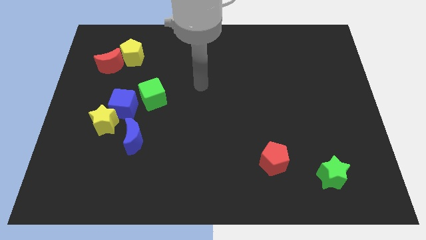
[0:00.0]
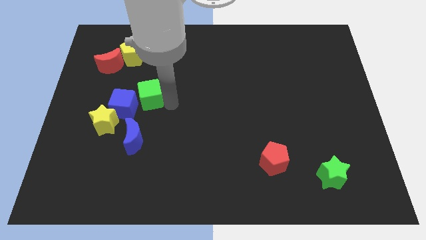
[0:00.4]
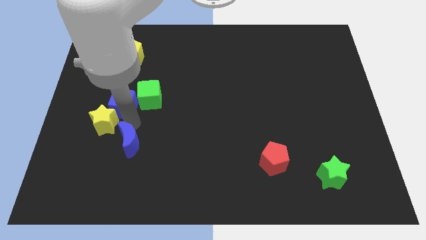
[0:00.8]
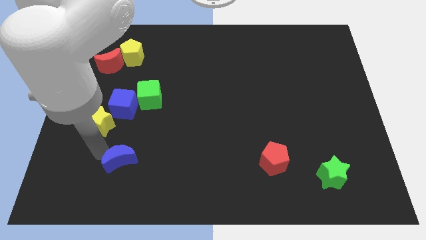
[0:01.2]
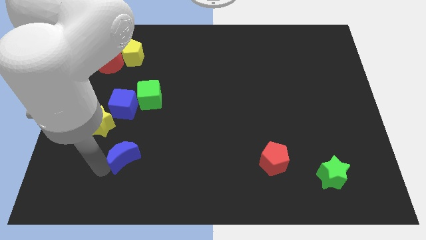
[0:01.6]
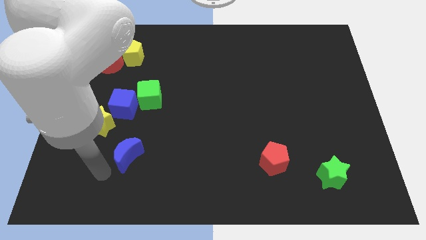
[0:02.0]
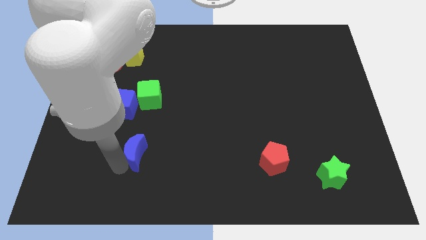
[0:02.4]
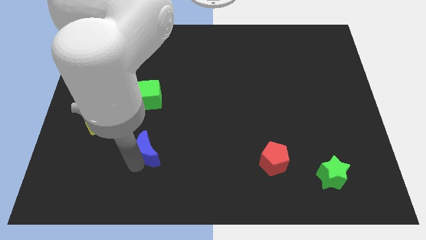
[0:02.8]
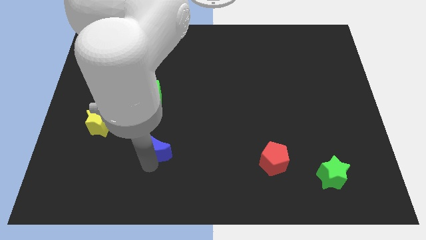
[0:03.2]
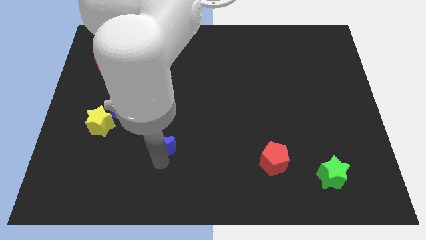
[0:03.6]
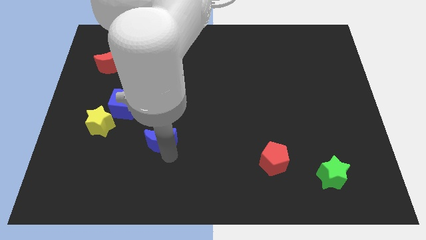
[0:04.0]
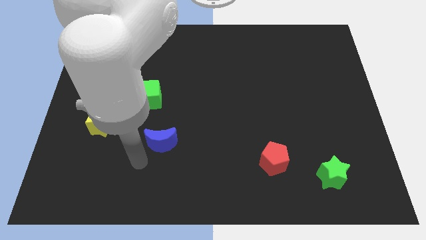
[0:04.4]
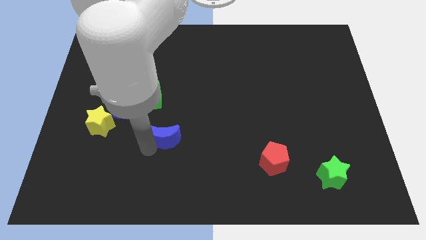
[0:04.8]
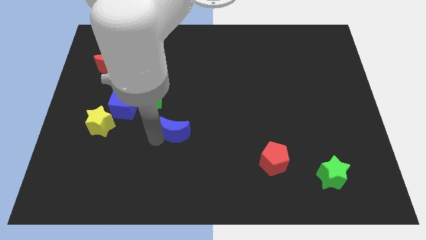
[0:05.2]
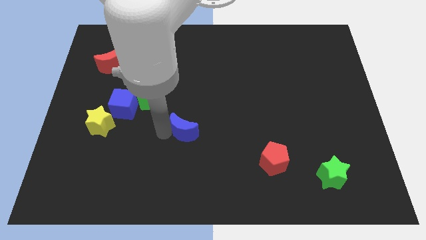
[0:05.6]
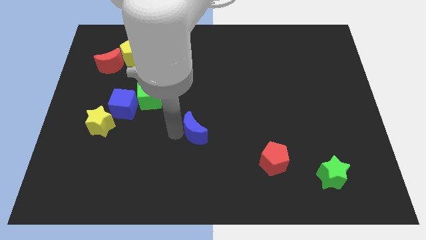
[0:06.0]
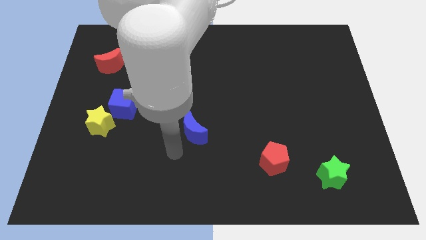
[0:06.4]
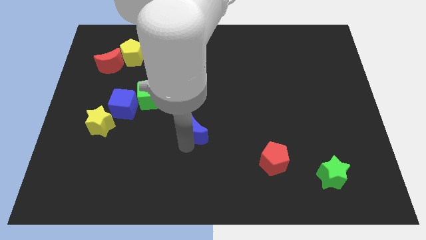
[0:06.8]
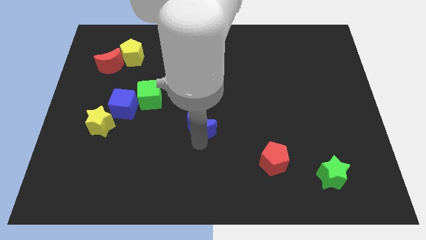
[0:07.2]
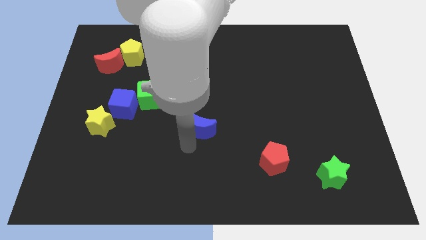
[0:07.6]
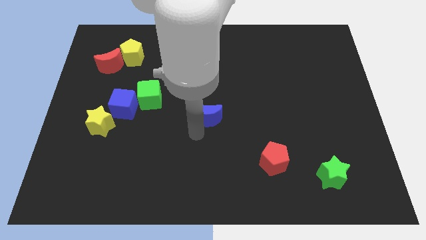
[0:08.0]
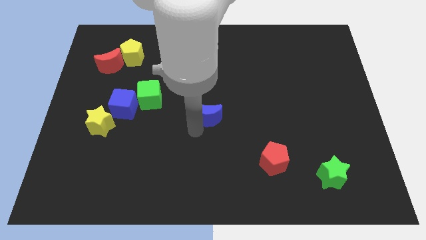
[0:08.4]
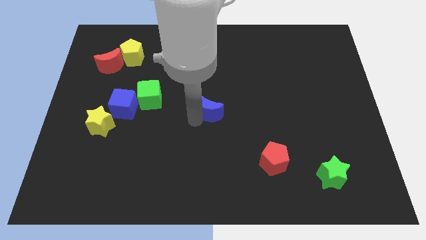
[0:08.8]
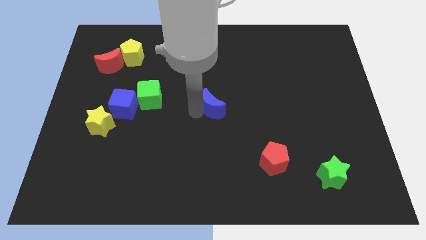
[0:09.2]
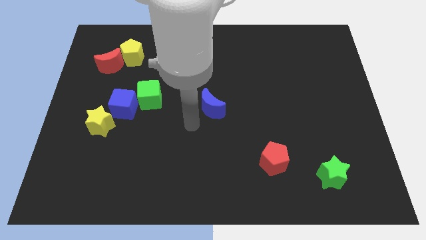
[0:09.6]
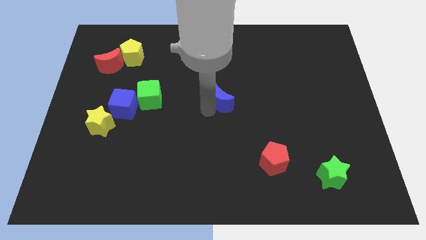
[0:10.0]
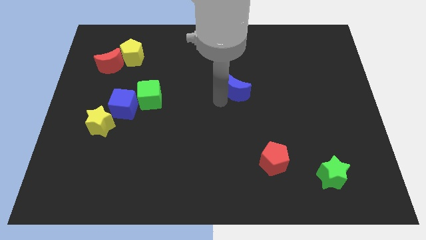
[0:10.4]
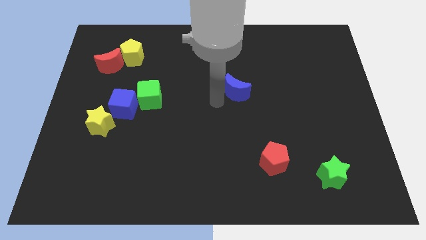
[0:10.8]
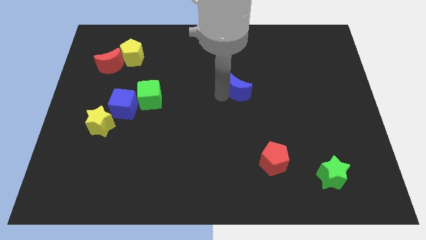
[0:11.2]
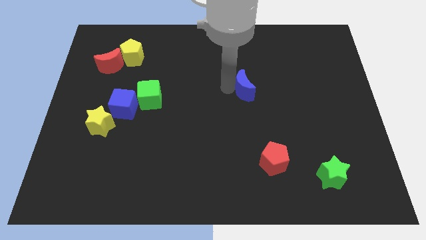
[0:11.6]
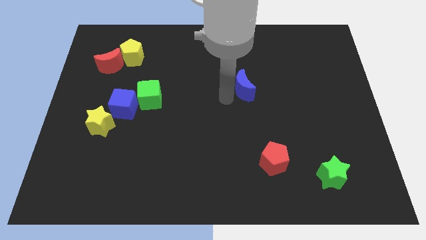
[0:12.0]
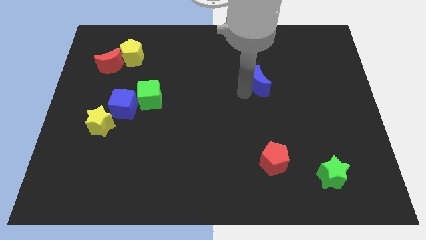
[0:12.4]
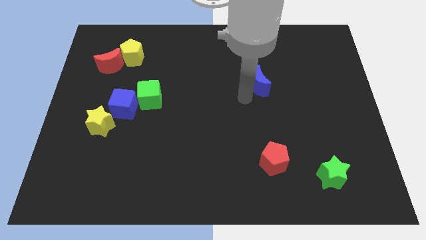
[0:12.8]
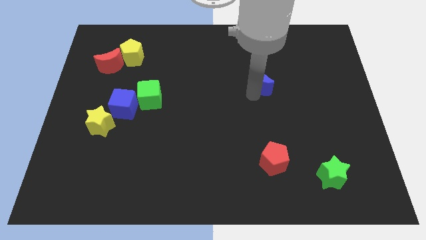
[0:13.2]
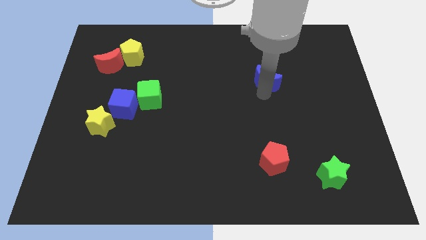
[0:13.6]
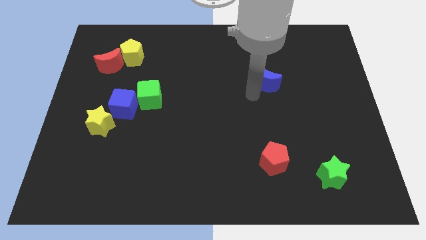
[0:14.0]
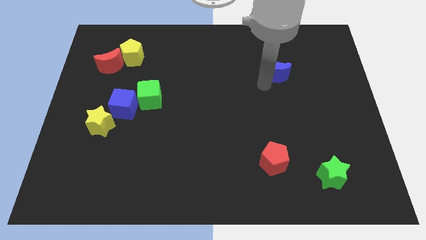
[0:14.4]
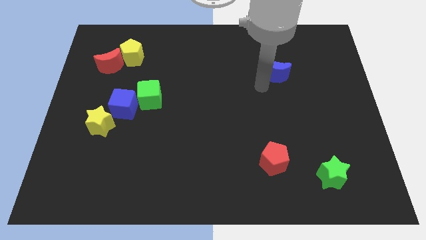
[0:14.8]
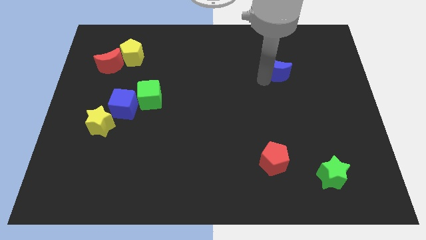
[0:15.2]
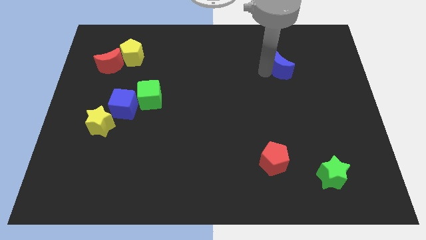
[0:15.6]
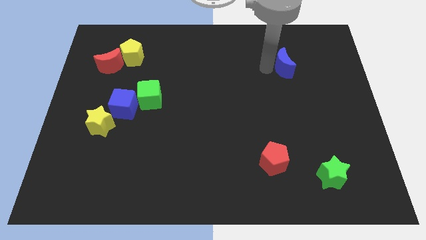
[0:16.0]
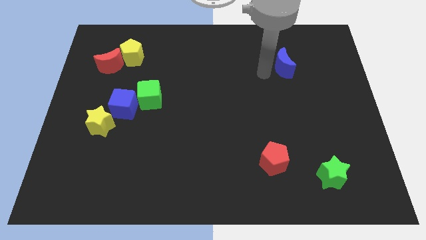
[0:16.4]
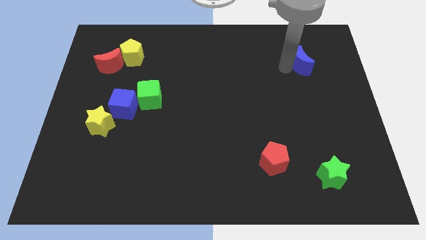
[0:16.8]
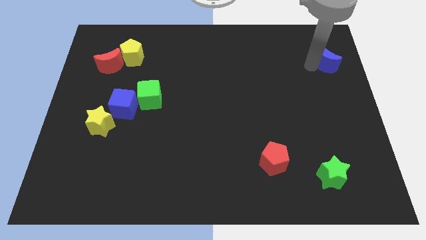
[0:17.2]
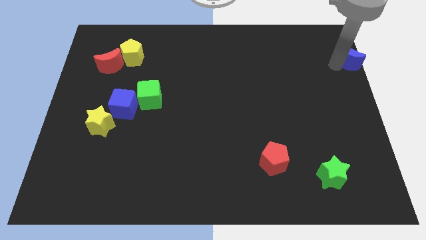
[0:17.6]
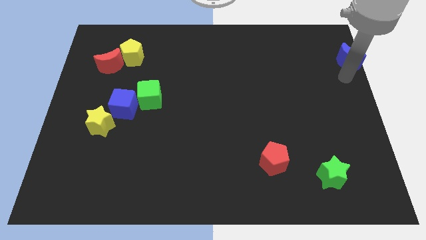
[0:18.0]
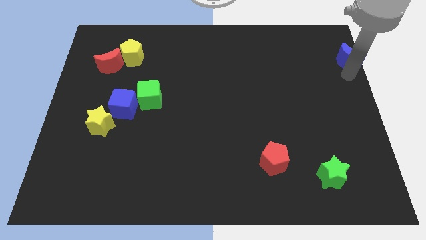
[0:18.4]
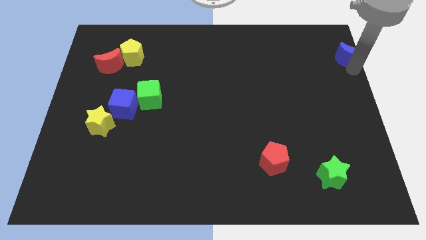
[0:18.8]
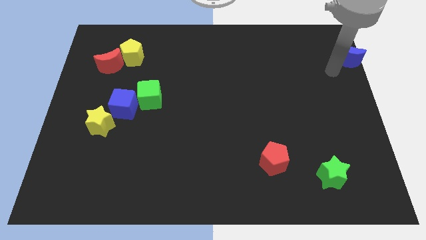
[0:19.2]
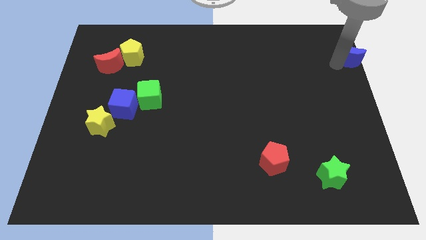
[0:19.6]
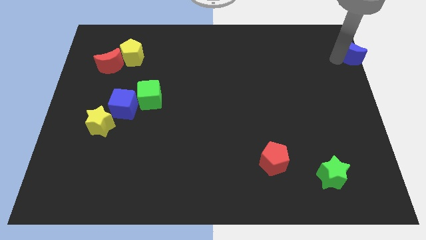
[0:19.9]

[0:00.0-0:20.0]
push the blue moon to the top right

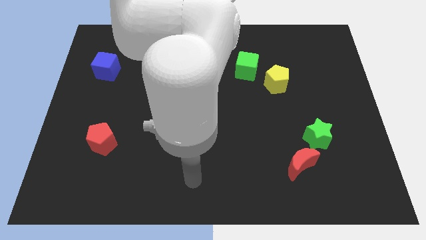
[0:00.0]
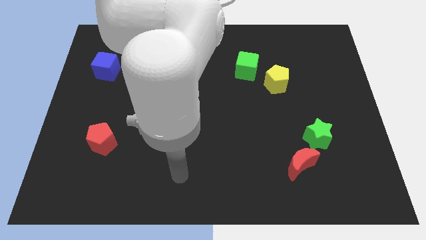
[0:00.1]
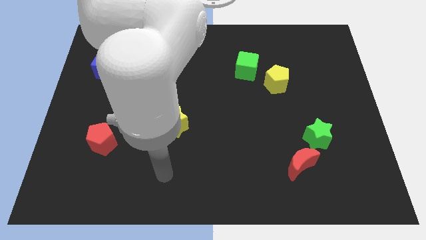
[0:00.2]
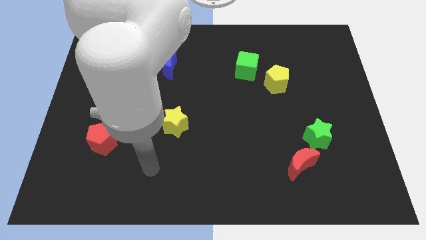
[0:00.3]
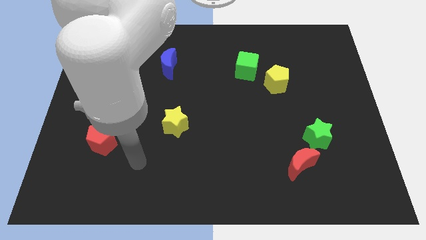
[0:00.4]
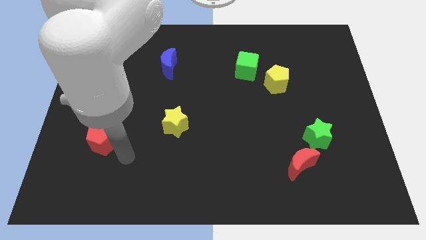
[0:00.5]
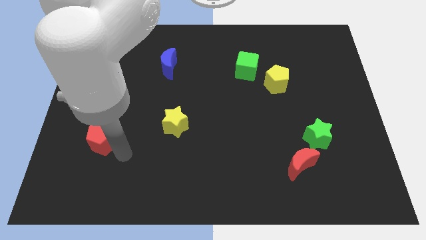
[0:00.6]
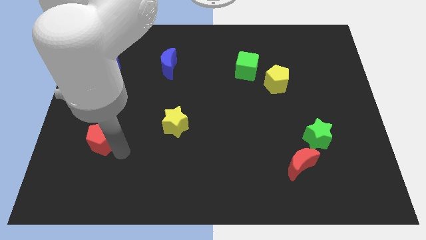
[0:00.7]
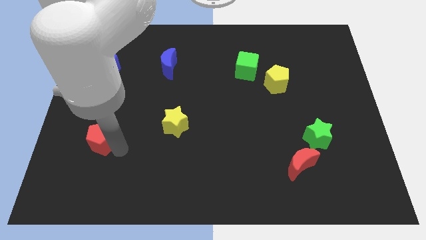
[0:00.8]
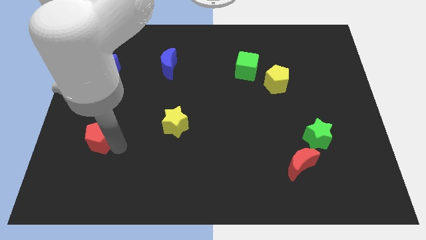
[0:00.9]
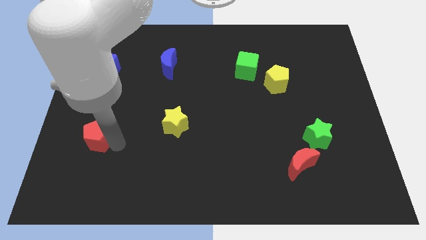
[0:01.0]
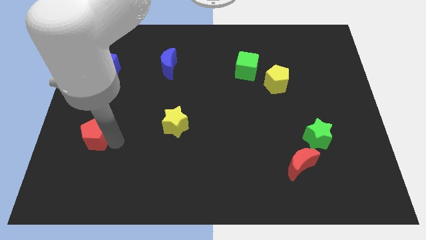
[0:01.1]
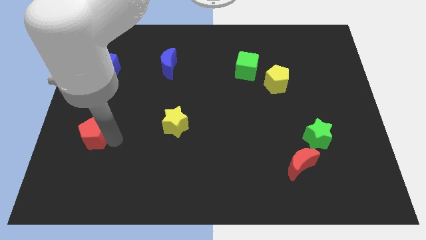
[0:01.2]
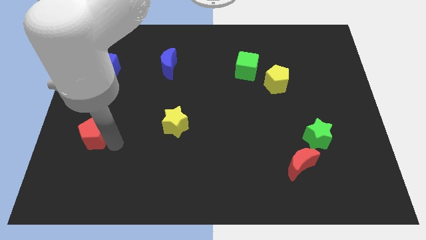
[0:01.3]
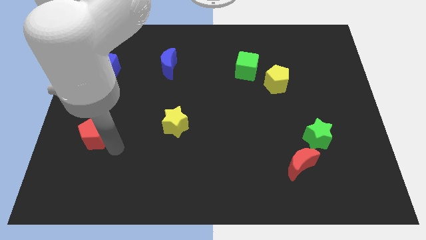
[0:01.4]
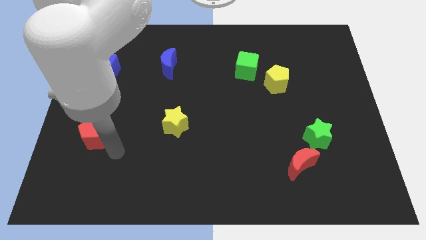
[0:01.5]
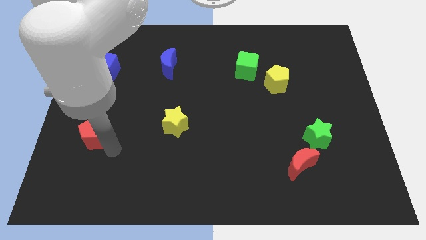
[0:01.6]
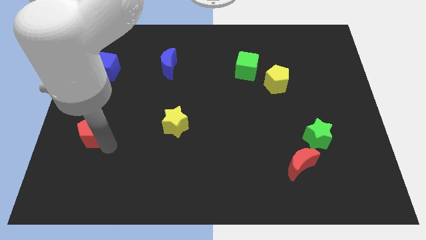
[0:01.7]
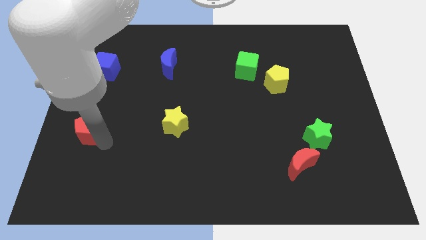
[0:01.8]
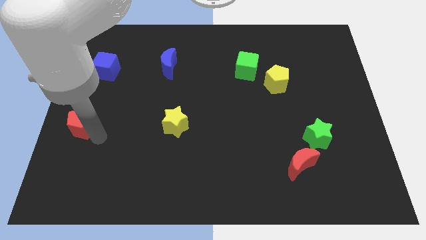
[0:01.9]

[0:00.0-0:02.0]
slide the red pentagon to the center left
